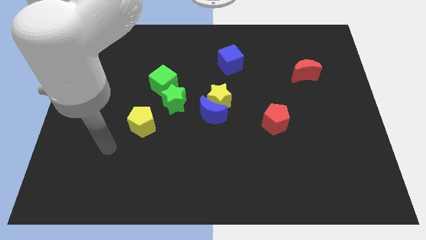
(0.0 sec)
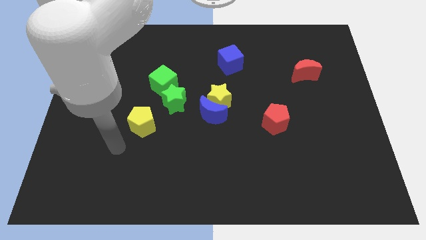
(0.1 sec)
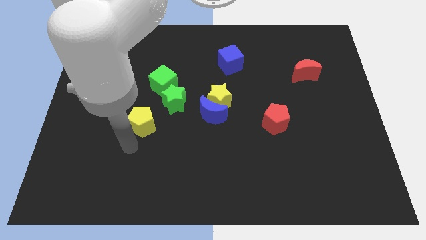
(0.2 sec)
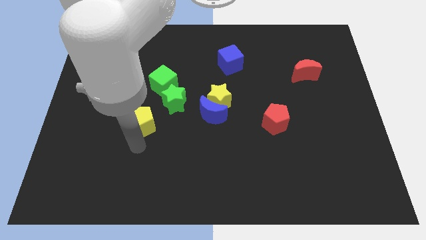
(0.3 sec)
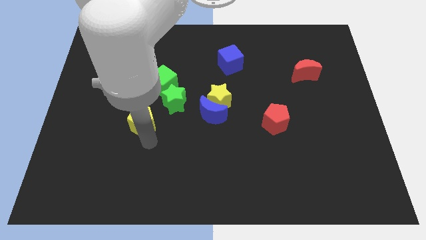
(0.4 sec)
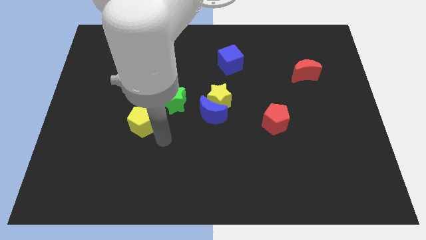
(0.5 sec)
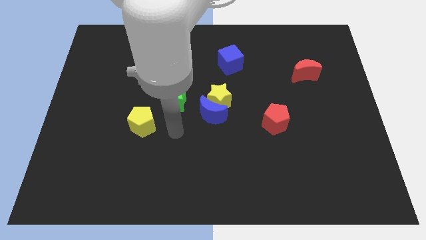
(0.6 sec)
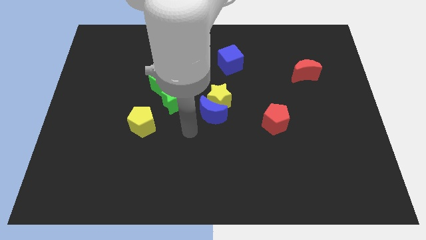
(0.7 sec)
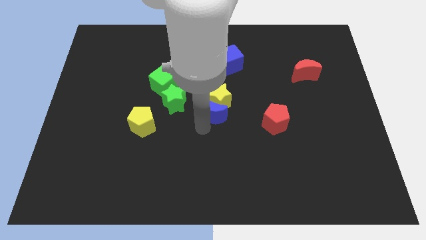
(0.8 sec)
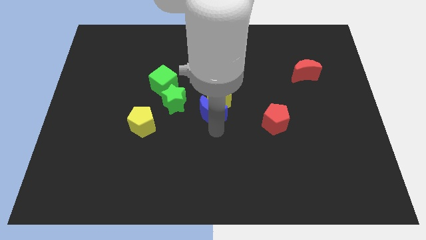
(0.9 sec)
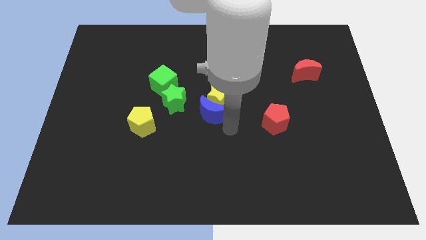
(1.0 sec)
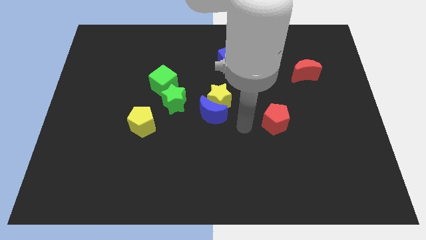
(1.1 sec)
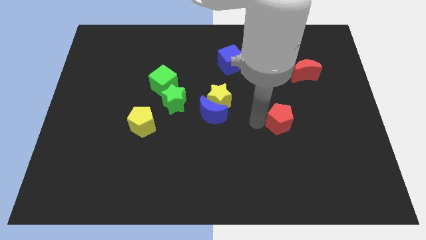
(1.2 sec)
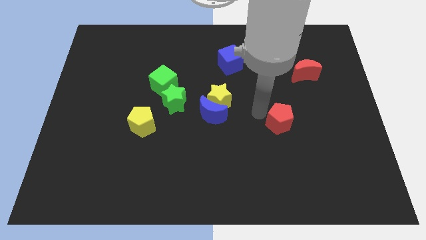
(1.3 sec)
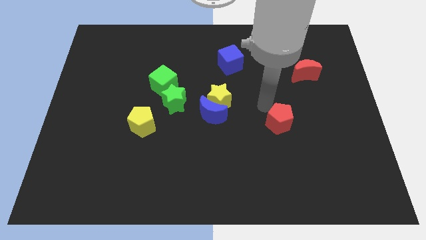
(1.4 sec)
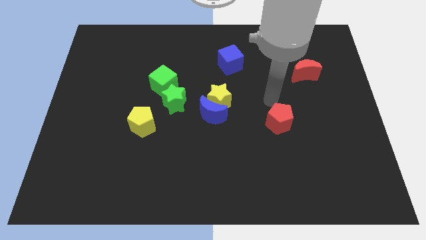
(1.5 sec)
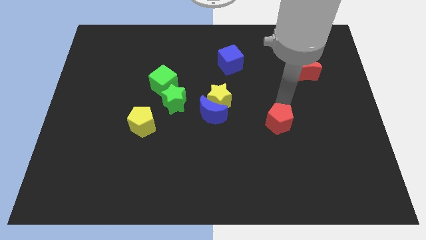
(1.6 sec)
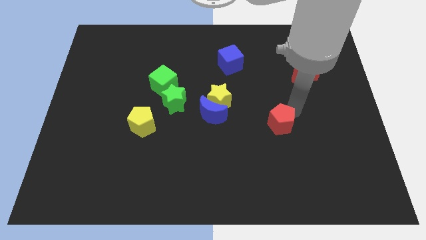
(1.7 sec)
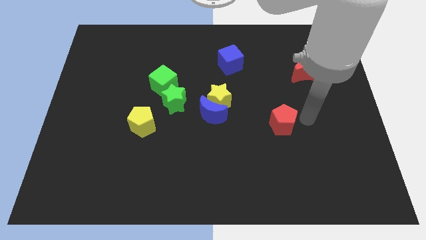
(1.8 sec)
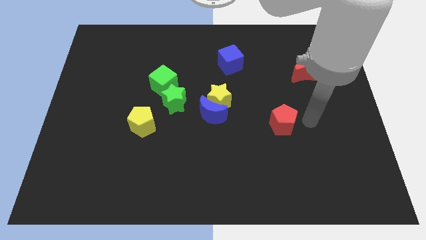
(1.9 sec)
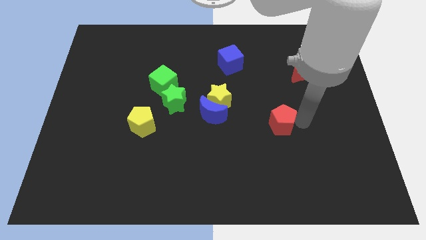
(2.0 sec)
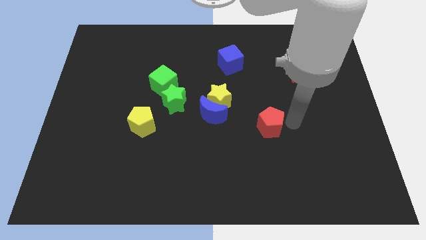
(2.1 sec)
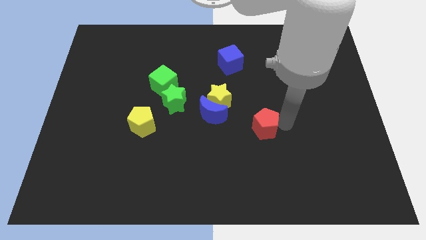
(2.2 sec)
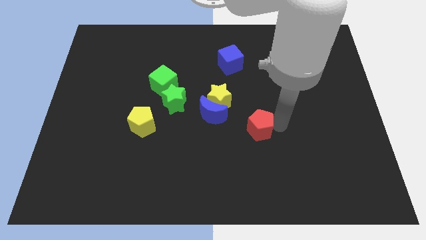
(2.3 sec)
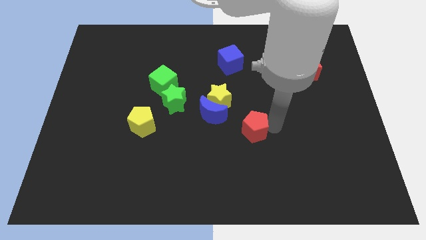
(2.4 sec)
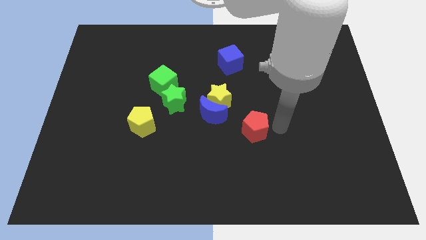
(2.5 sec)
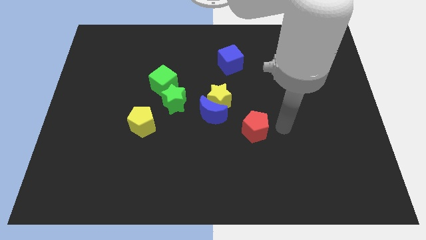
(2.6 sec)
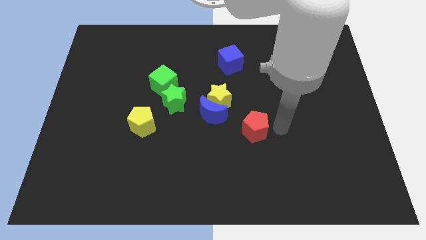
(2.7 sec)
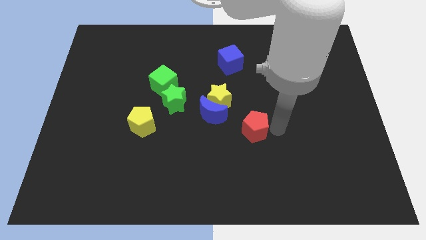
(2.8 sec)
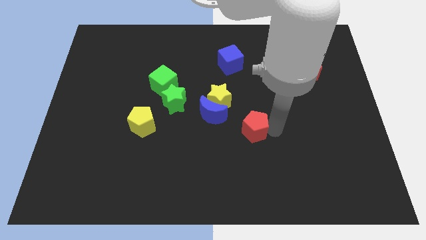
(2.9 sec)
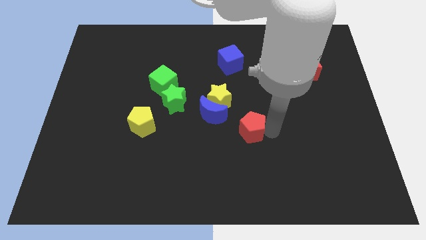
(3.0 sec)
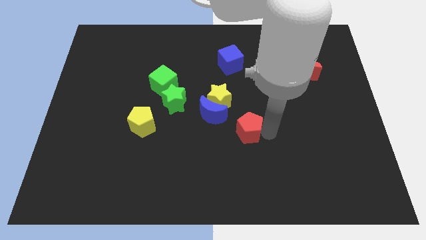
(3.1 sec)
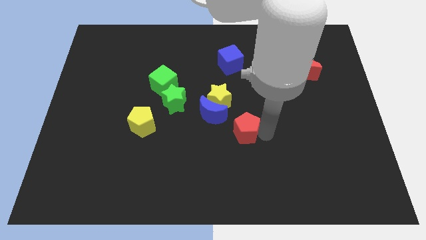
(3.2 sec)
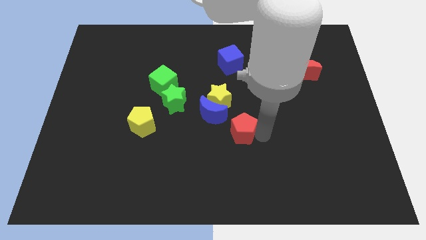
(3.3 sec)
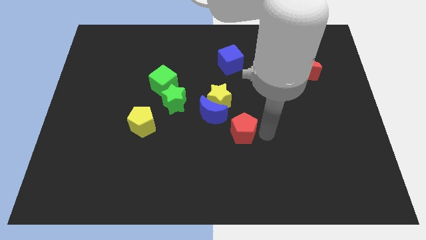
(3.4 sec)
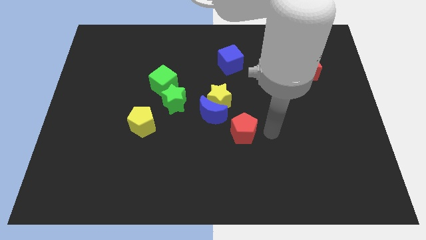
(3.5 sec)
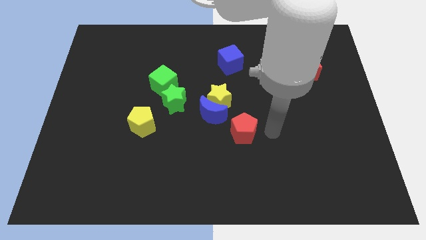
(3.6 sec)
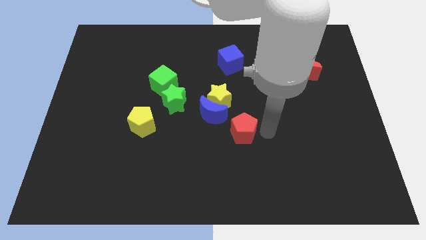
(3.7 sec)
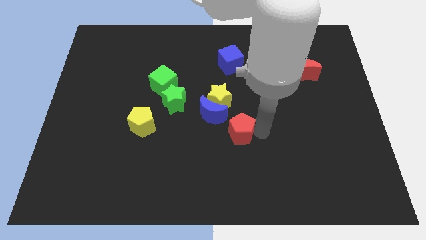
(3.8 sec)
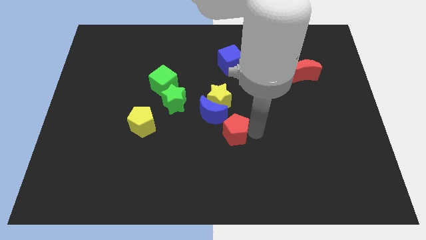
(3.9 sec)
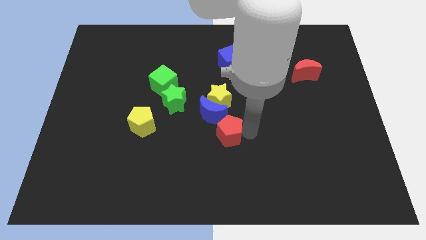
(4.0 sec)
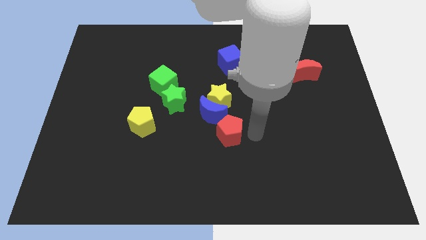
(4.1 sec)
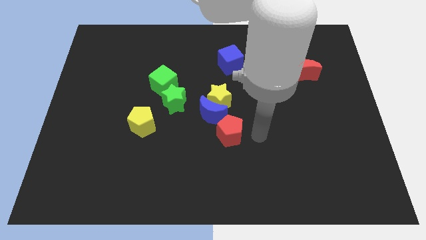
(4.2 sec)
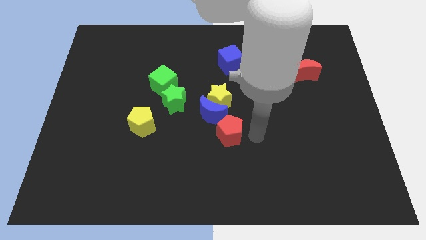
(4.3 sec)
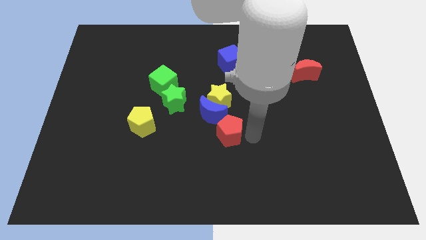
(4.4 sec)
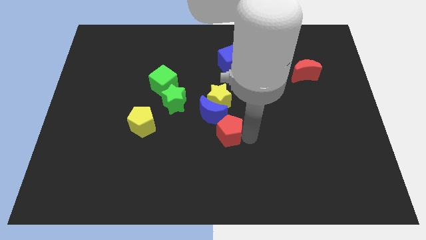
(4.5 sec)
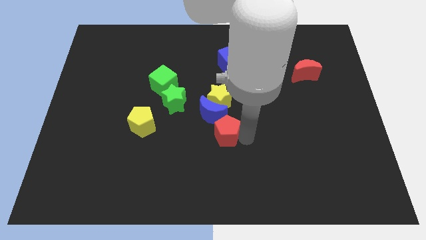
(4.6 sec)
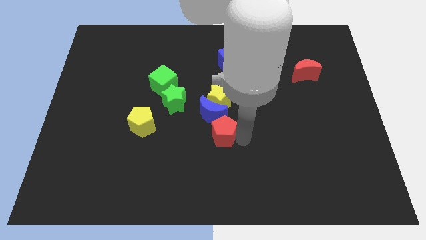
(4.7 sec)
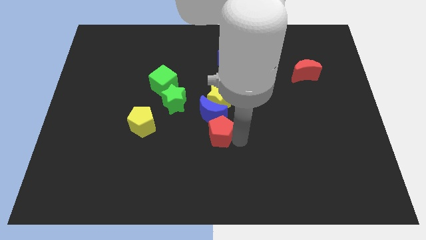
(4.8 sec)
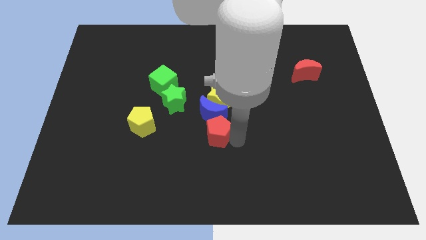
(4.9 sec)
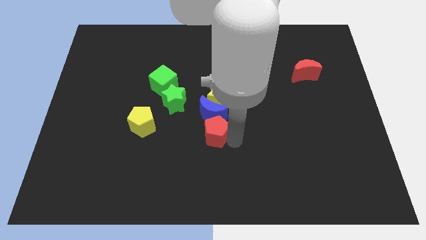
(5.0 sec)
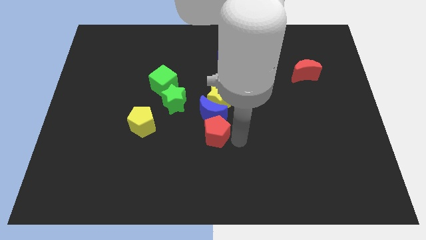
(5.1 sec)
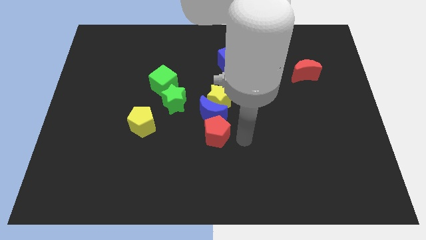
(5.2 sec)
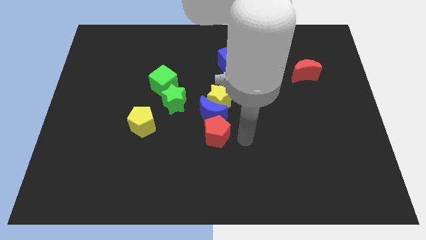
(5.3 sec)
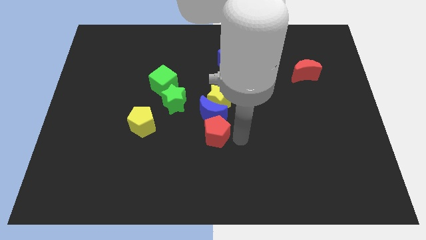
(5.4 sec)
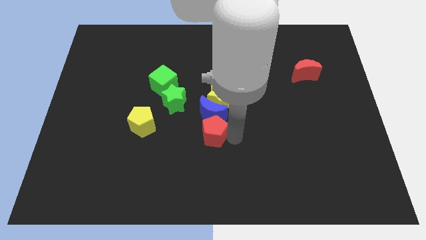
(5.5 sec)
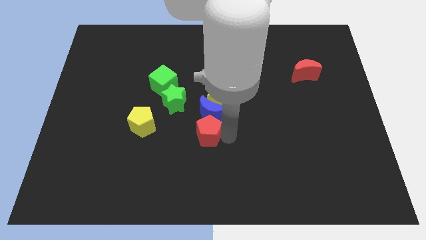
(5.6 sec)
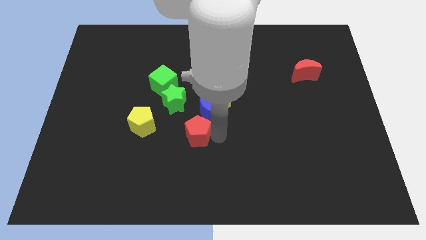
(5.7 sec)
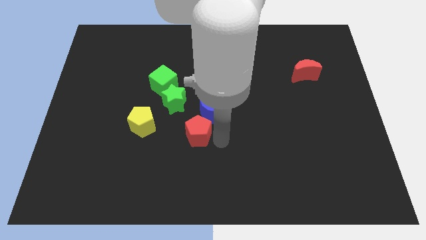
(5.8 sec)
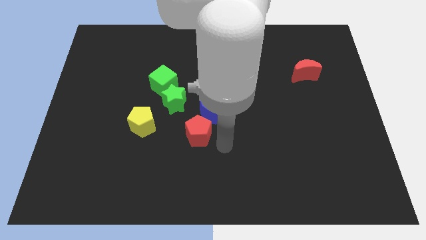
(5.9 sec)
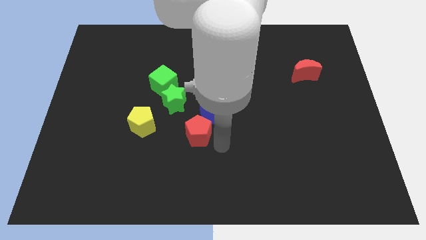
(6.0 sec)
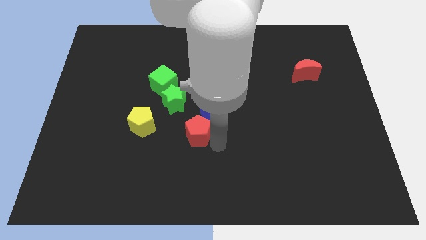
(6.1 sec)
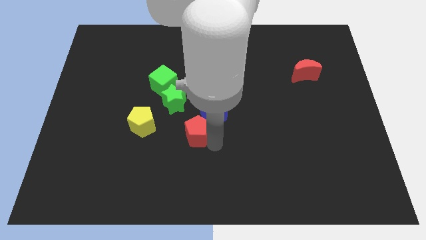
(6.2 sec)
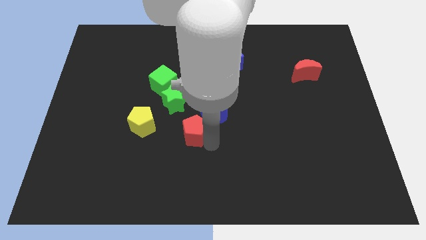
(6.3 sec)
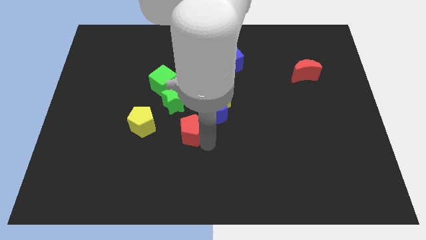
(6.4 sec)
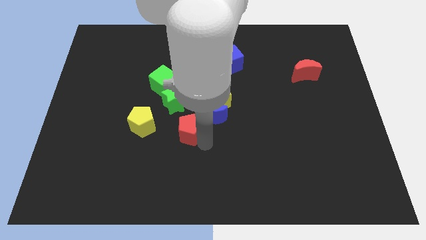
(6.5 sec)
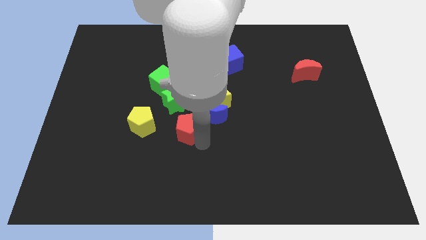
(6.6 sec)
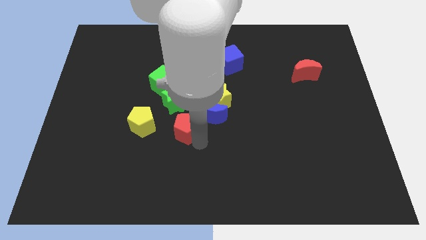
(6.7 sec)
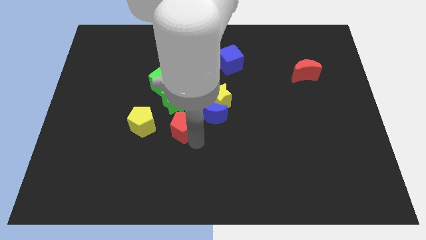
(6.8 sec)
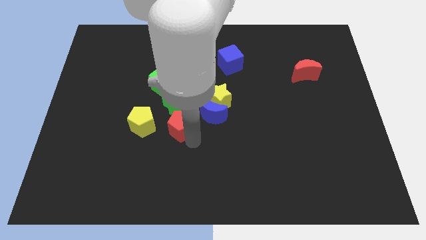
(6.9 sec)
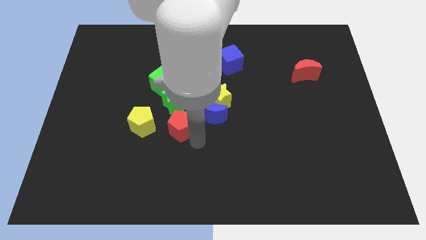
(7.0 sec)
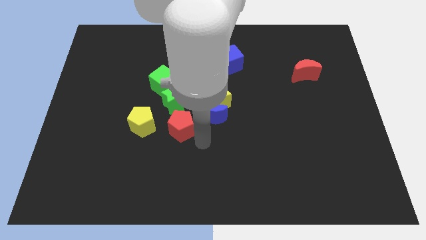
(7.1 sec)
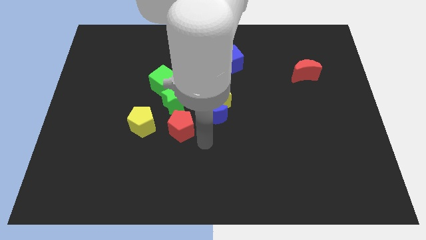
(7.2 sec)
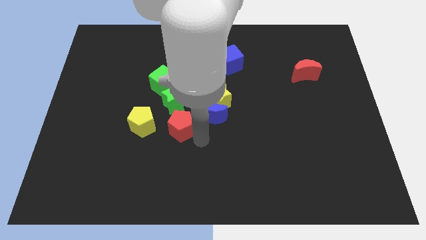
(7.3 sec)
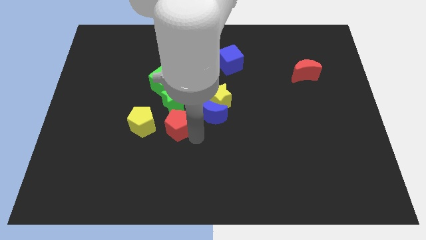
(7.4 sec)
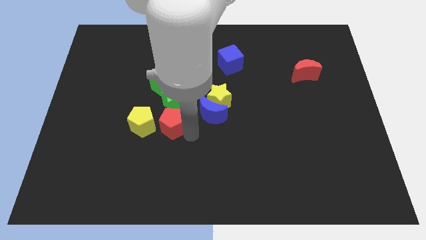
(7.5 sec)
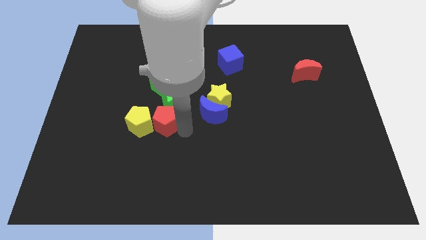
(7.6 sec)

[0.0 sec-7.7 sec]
put the red pentagon towards the yellow pentagon

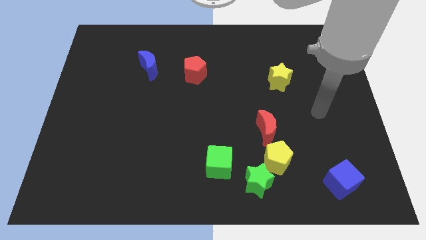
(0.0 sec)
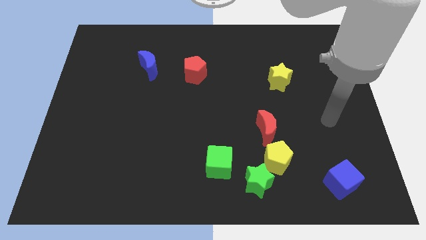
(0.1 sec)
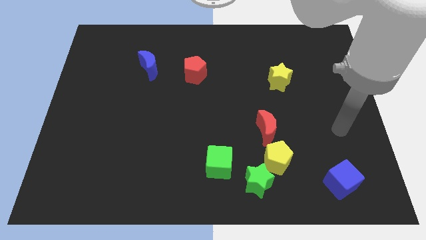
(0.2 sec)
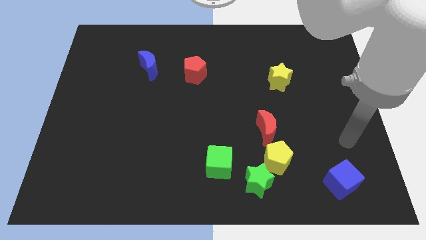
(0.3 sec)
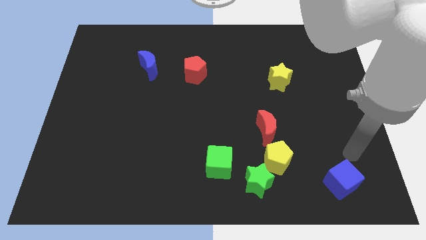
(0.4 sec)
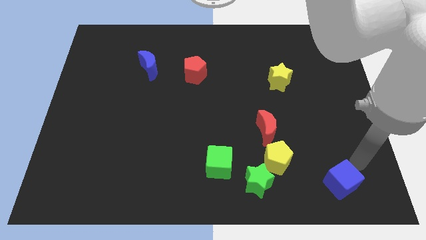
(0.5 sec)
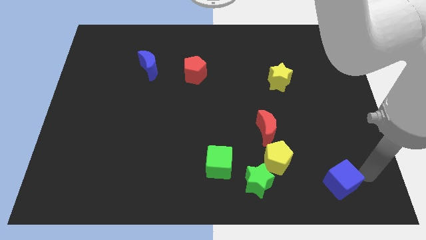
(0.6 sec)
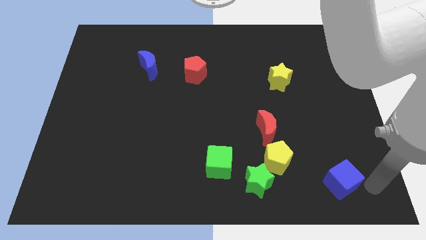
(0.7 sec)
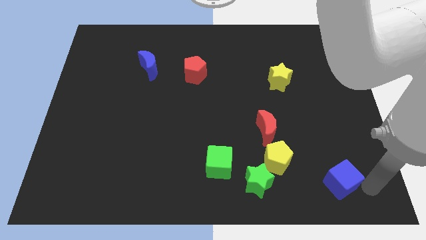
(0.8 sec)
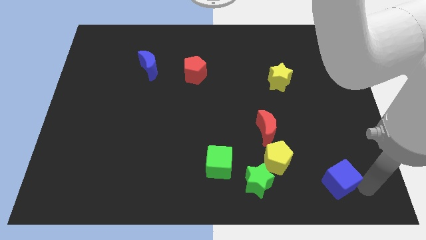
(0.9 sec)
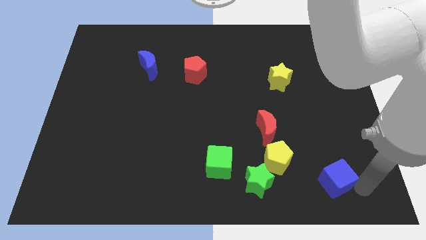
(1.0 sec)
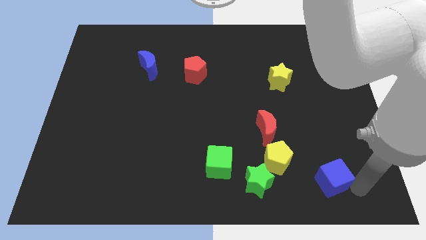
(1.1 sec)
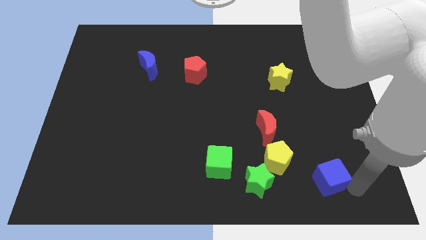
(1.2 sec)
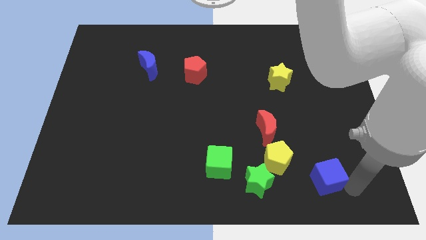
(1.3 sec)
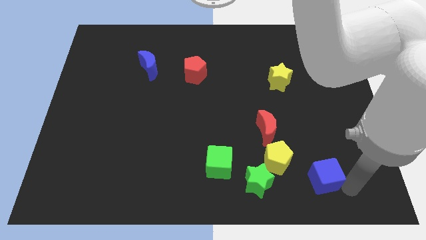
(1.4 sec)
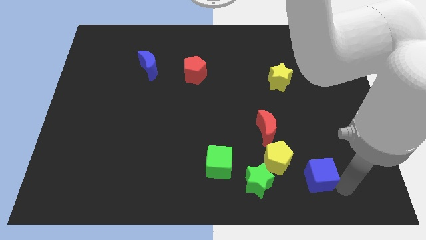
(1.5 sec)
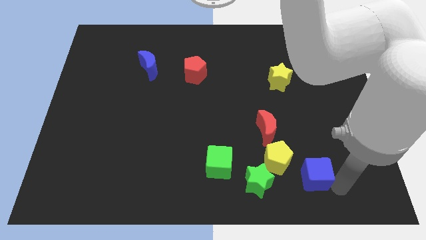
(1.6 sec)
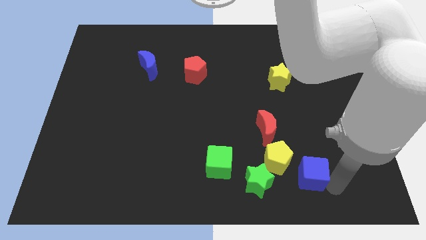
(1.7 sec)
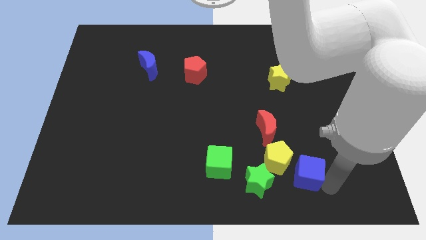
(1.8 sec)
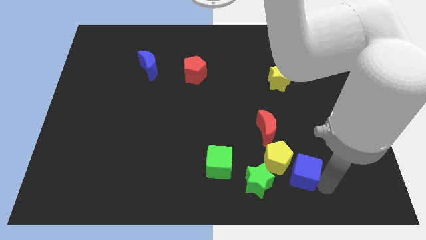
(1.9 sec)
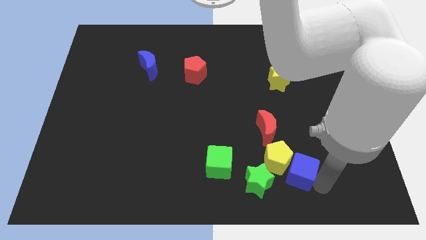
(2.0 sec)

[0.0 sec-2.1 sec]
put the blue cube to the yellow pentagon
